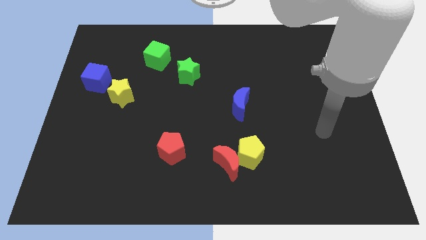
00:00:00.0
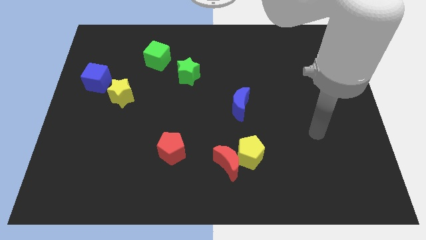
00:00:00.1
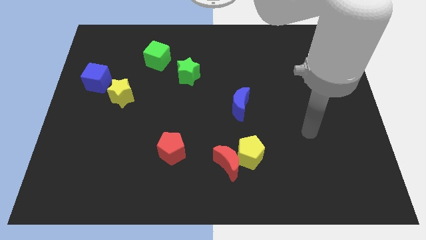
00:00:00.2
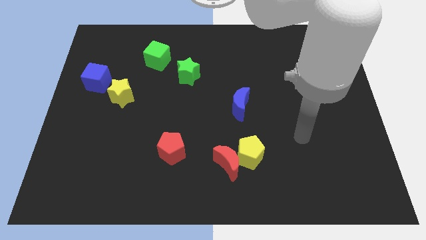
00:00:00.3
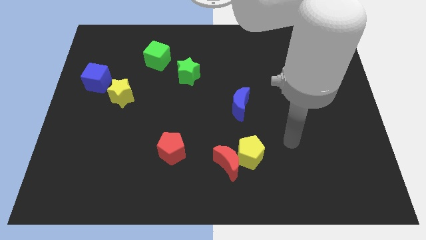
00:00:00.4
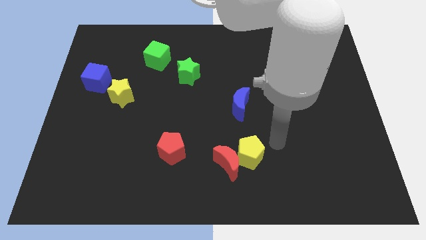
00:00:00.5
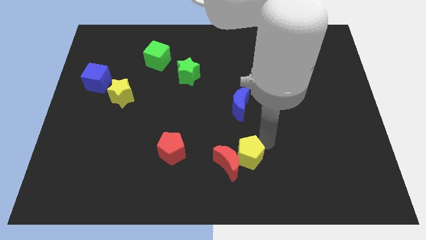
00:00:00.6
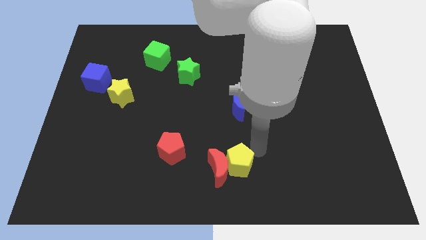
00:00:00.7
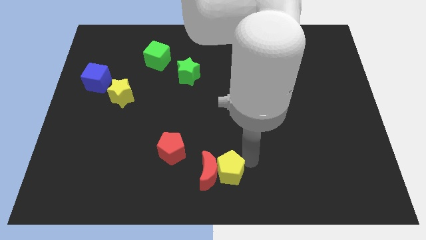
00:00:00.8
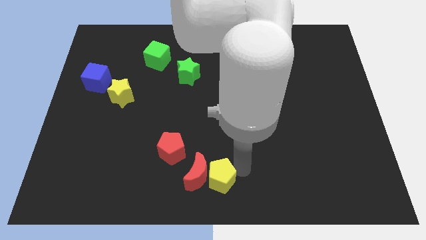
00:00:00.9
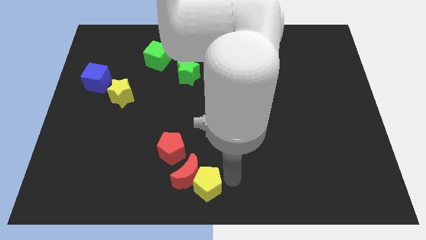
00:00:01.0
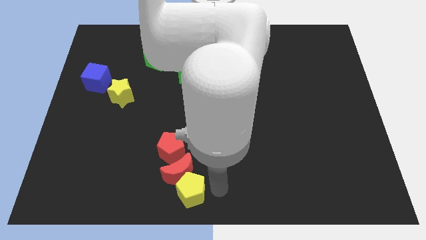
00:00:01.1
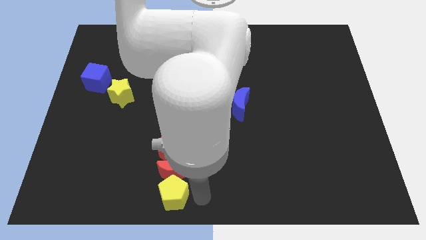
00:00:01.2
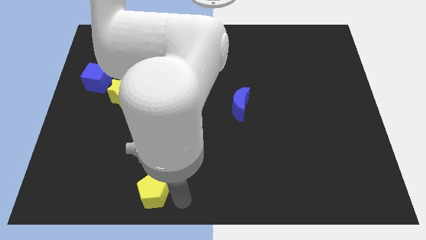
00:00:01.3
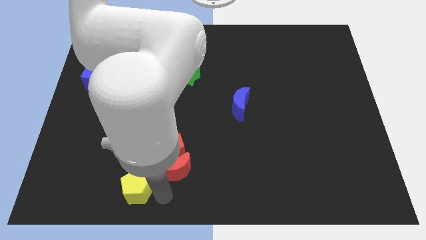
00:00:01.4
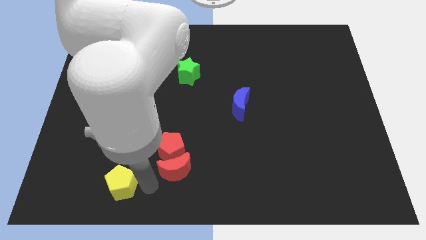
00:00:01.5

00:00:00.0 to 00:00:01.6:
separate the red moon from the yellow pentagon

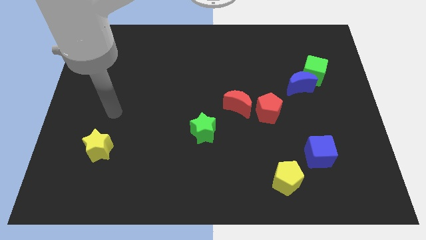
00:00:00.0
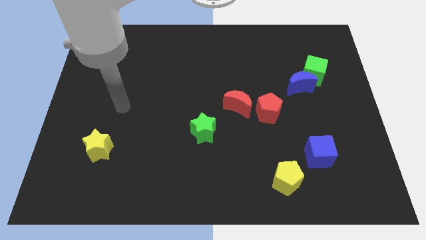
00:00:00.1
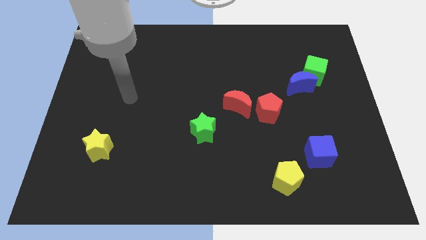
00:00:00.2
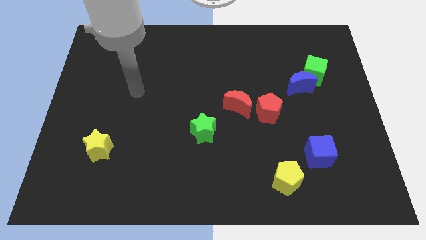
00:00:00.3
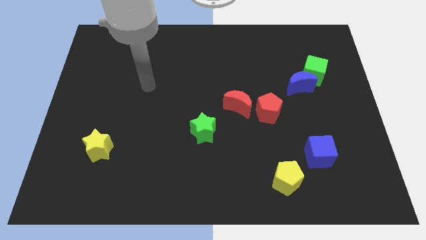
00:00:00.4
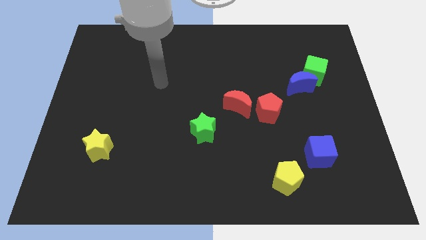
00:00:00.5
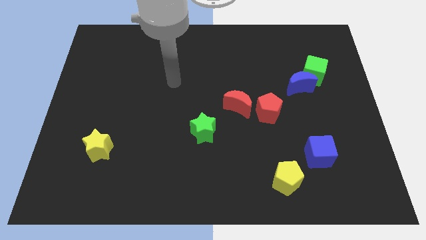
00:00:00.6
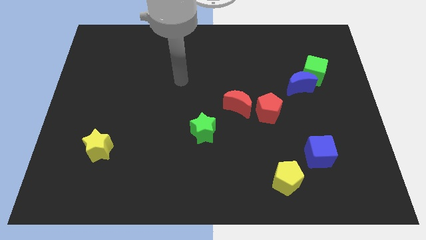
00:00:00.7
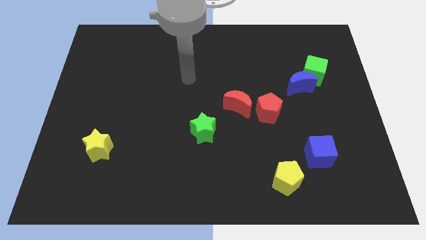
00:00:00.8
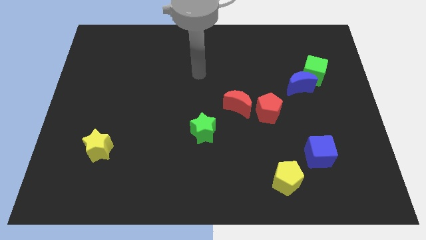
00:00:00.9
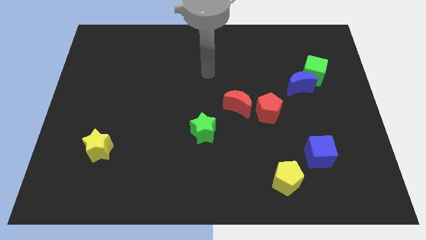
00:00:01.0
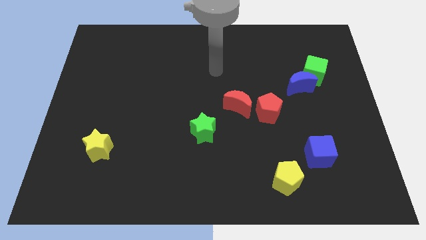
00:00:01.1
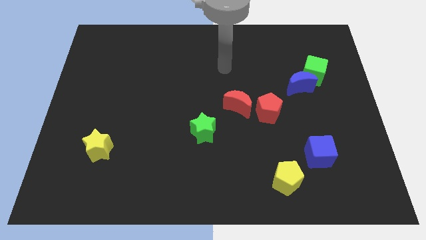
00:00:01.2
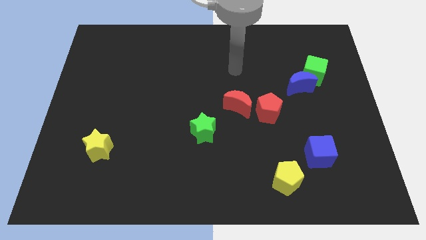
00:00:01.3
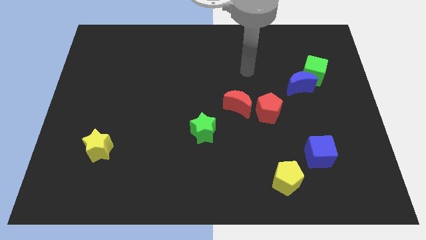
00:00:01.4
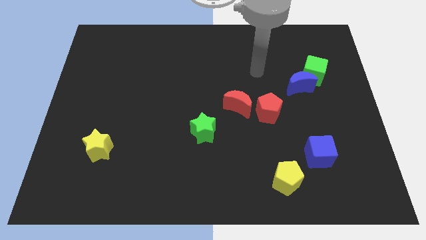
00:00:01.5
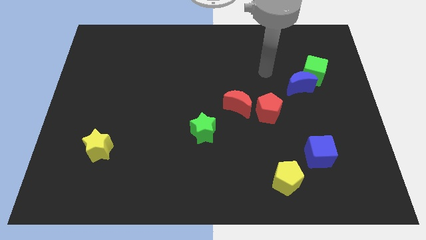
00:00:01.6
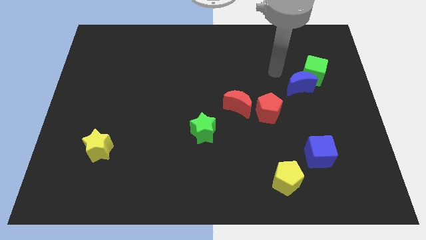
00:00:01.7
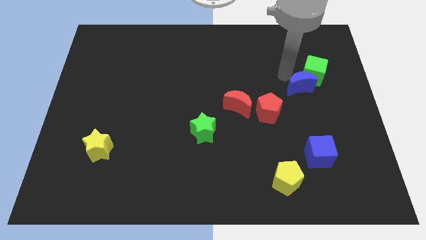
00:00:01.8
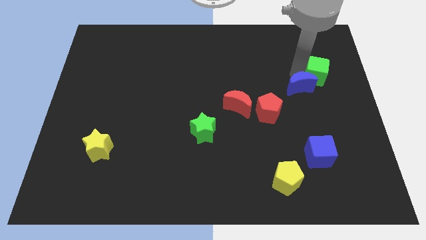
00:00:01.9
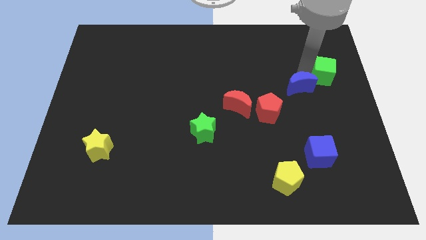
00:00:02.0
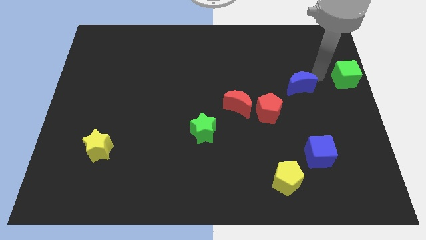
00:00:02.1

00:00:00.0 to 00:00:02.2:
separate the blue moon from the green cube

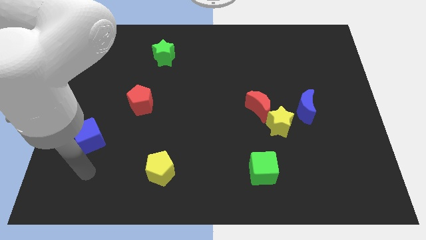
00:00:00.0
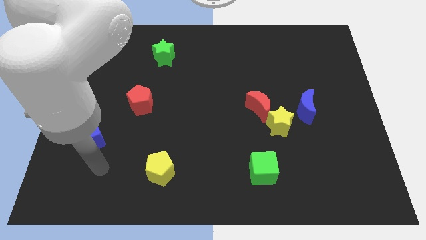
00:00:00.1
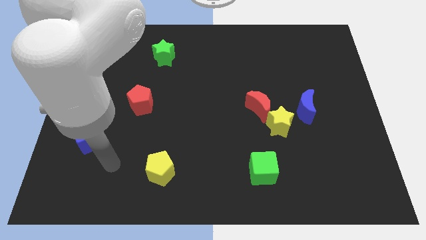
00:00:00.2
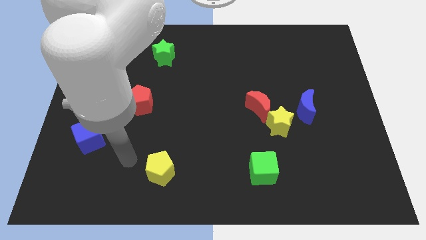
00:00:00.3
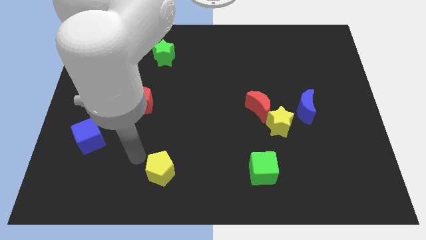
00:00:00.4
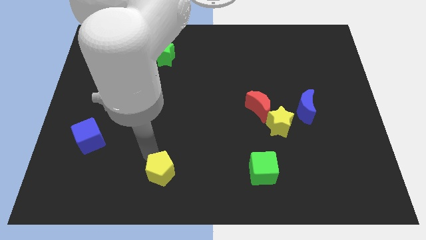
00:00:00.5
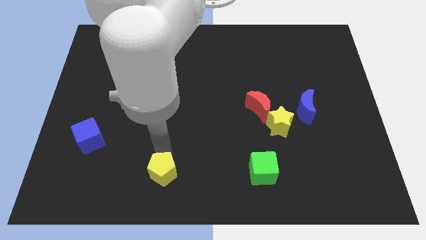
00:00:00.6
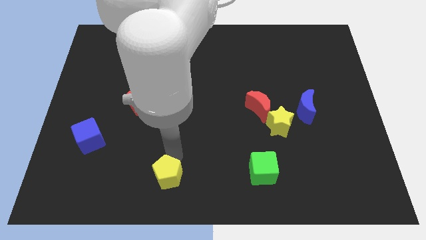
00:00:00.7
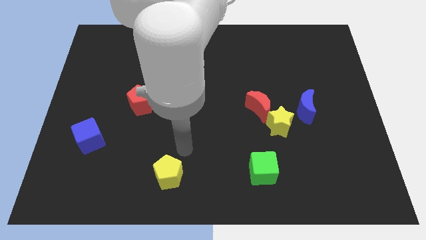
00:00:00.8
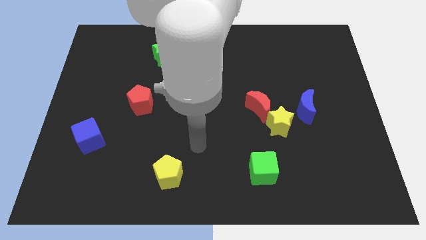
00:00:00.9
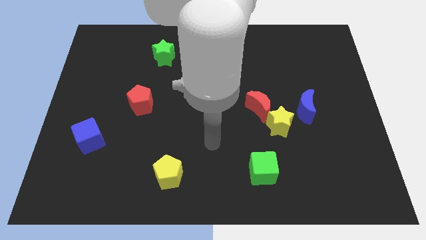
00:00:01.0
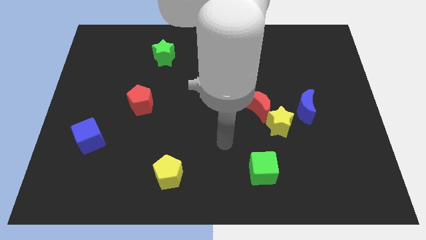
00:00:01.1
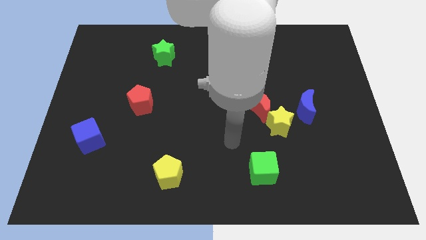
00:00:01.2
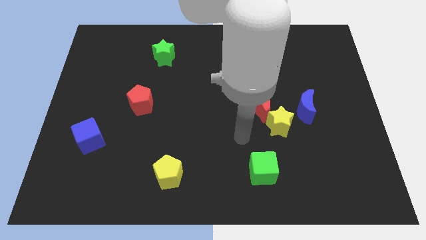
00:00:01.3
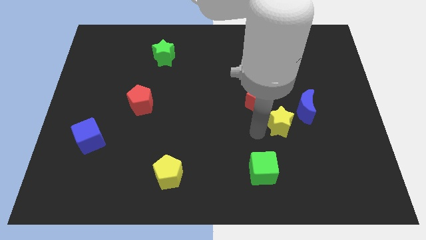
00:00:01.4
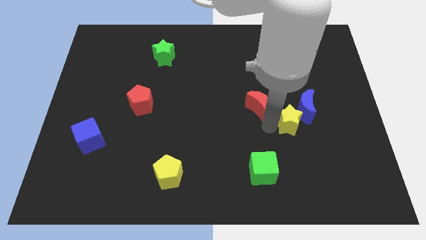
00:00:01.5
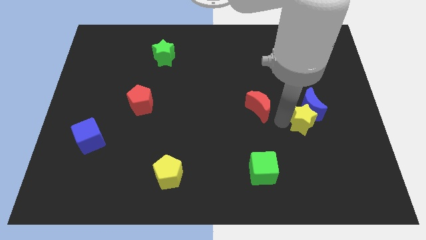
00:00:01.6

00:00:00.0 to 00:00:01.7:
separate the red moon from the yellow star

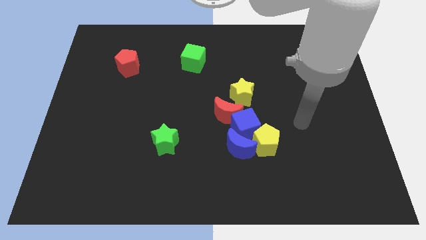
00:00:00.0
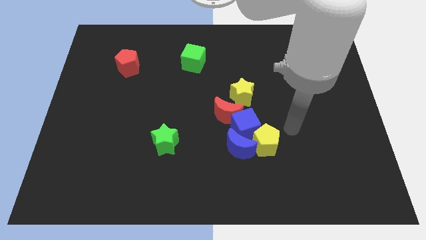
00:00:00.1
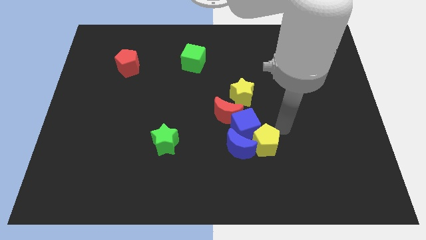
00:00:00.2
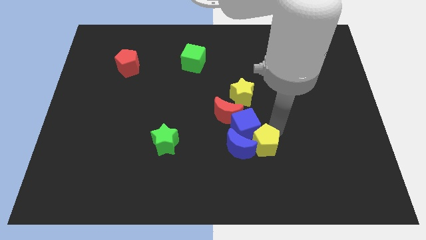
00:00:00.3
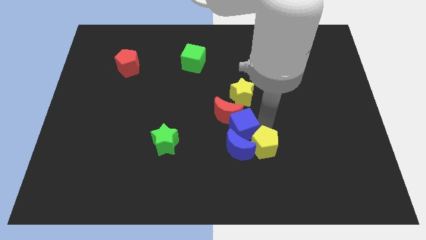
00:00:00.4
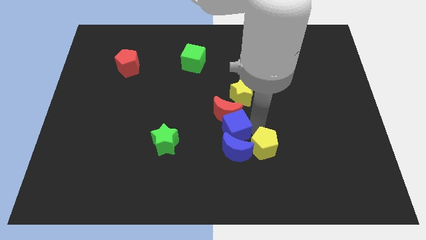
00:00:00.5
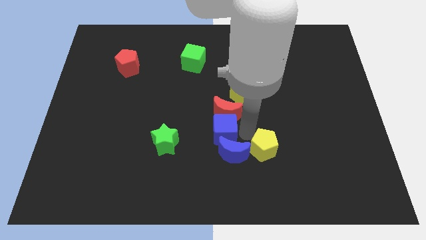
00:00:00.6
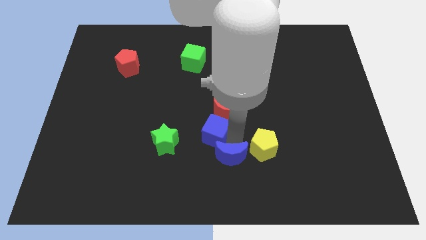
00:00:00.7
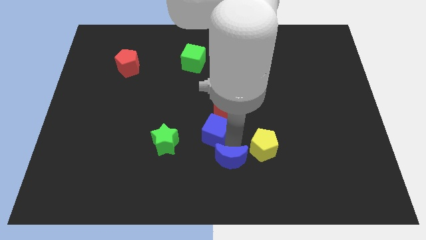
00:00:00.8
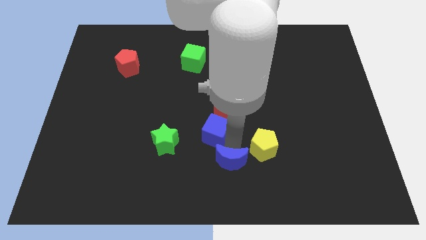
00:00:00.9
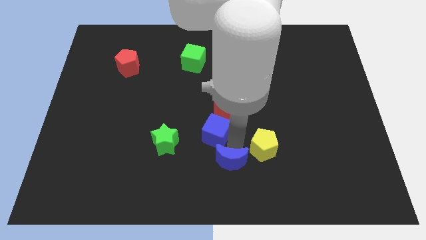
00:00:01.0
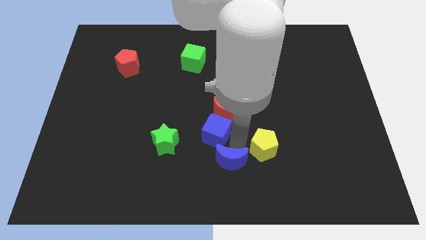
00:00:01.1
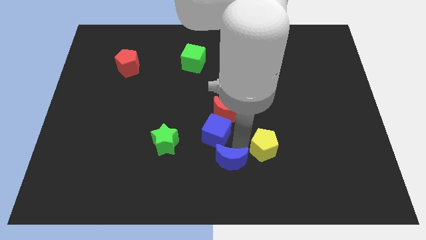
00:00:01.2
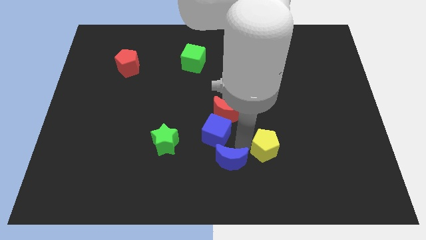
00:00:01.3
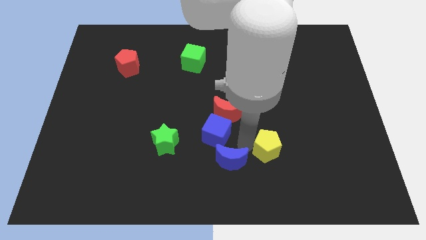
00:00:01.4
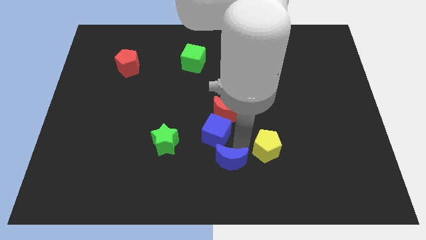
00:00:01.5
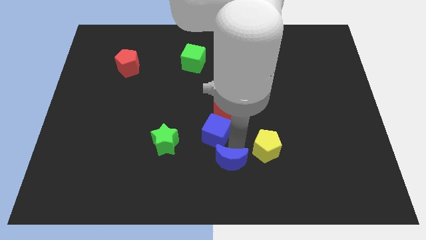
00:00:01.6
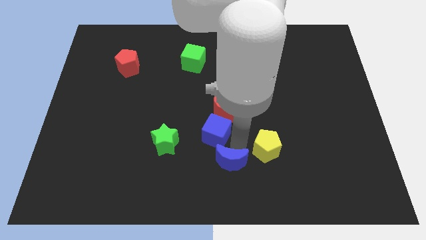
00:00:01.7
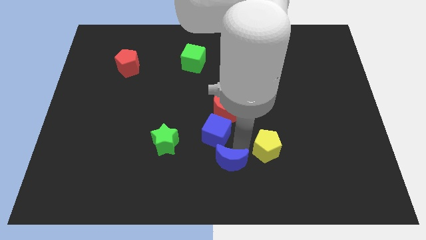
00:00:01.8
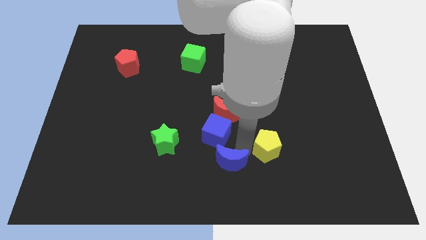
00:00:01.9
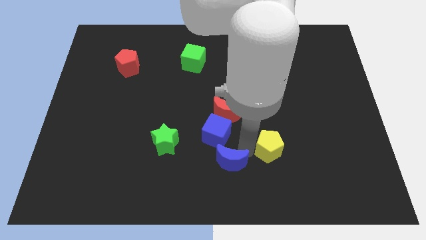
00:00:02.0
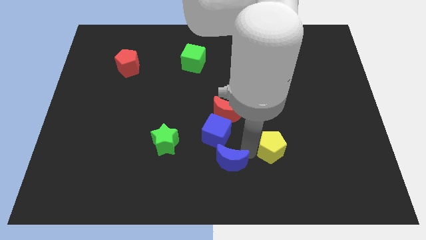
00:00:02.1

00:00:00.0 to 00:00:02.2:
separate the yellow pentagon from the blue cube and blue moon

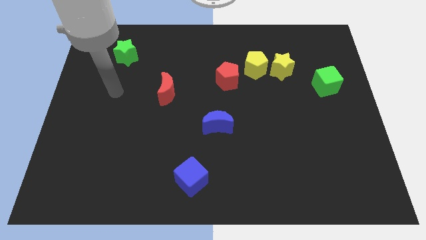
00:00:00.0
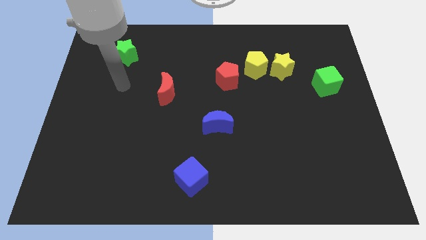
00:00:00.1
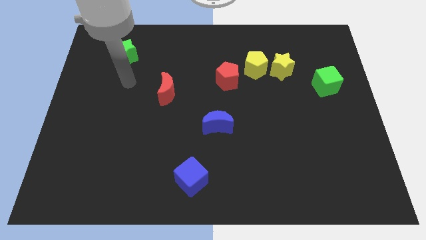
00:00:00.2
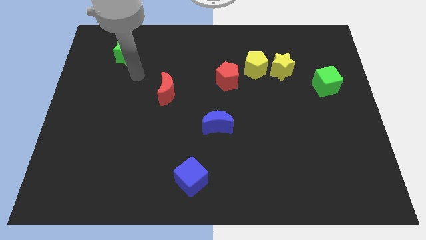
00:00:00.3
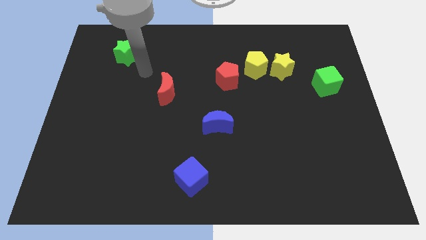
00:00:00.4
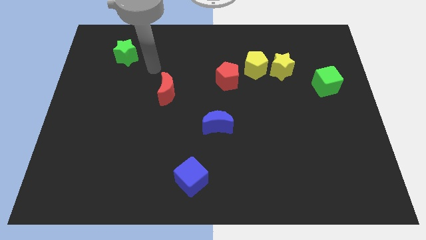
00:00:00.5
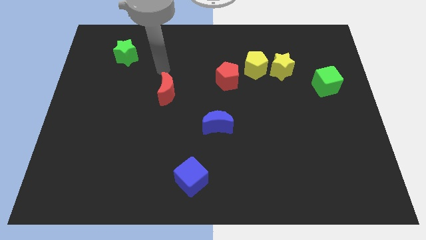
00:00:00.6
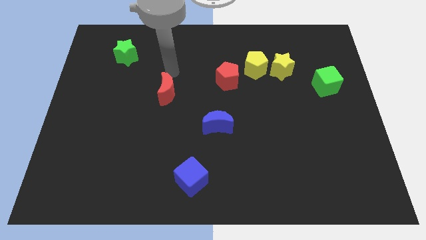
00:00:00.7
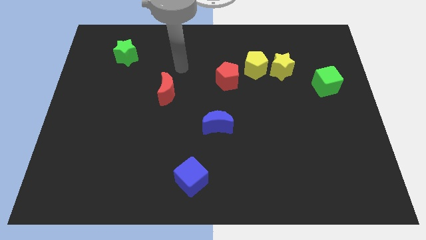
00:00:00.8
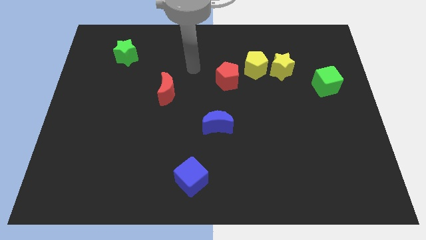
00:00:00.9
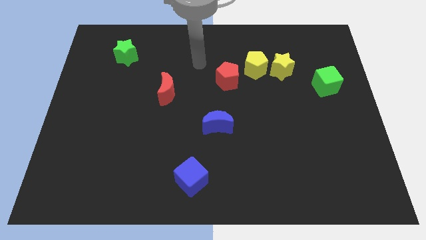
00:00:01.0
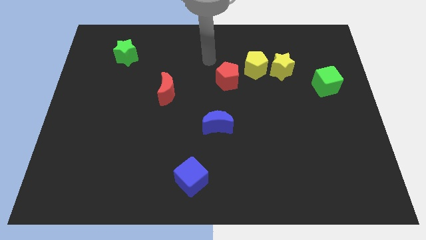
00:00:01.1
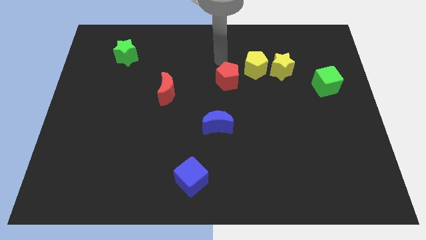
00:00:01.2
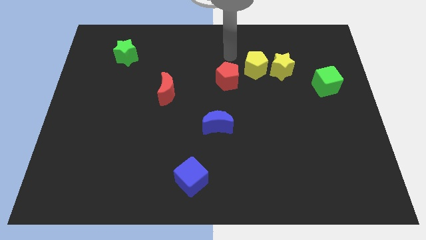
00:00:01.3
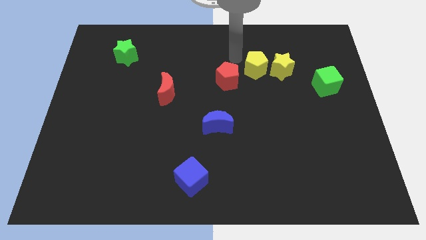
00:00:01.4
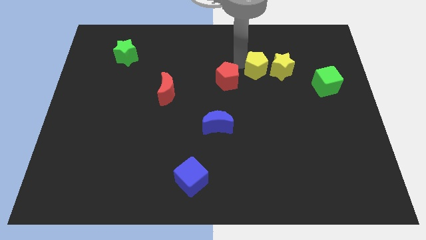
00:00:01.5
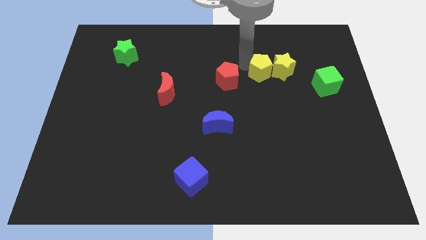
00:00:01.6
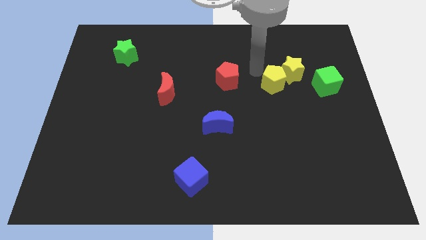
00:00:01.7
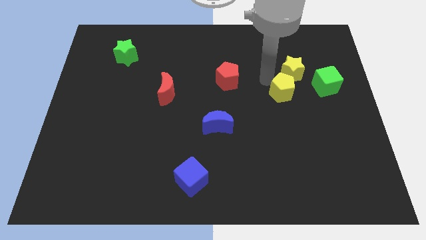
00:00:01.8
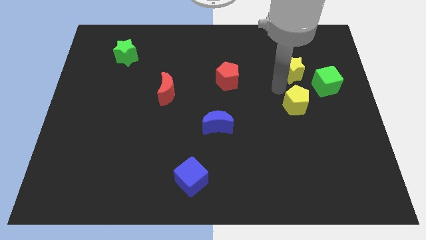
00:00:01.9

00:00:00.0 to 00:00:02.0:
separate the yellow star from the yellow pentagon
